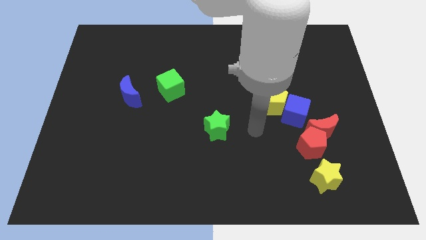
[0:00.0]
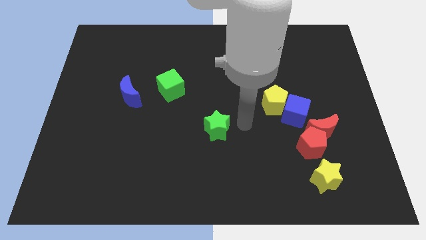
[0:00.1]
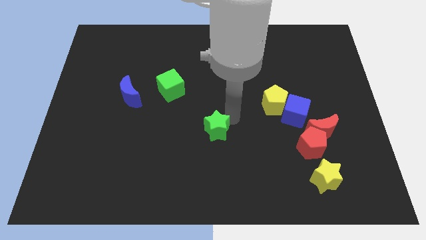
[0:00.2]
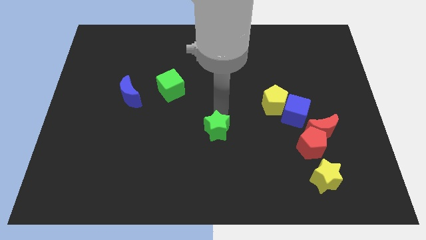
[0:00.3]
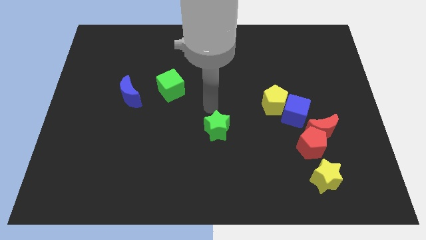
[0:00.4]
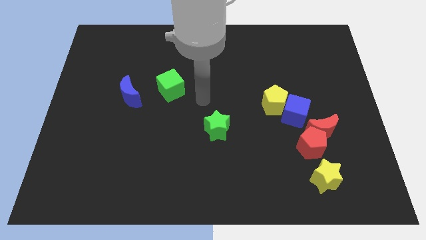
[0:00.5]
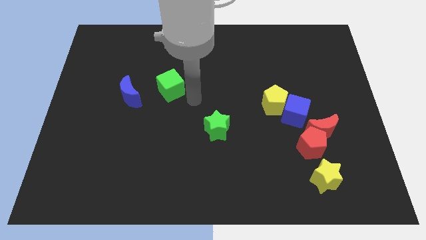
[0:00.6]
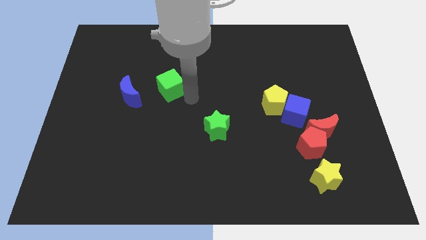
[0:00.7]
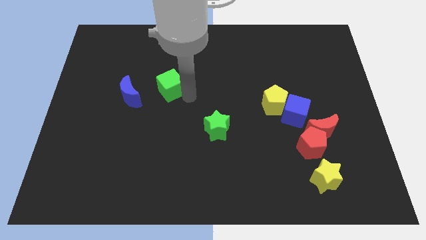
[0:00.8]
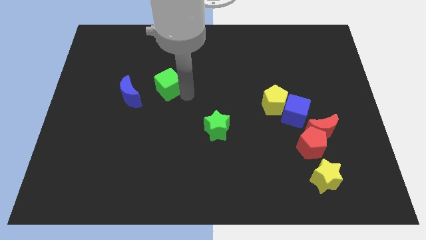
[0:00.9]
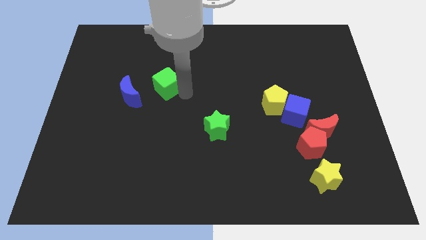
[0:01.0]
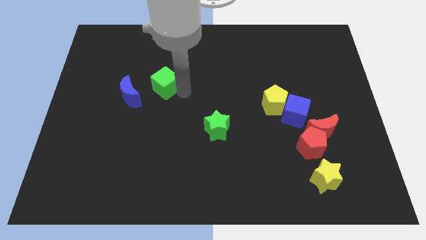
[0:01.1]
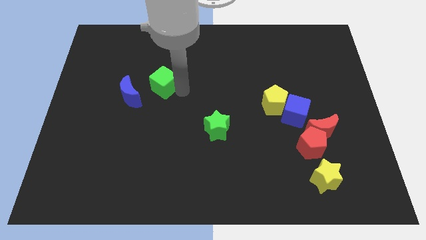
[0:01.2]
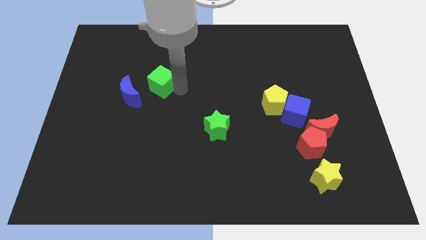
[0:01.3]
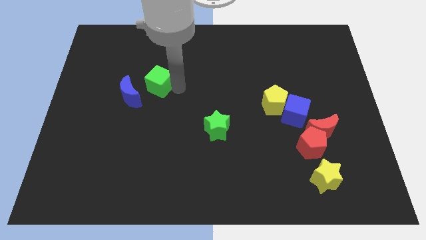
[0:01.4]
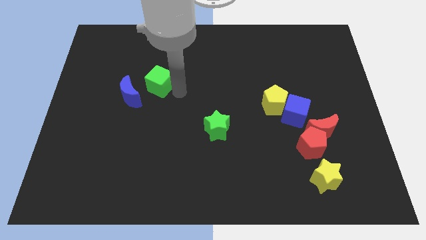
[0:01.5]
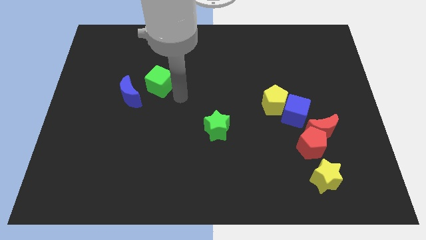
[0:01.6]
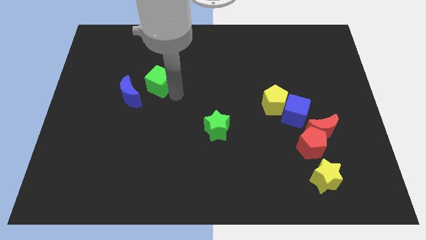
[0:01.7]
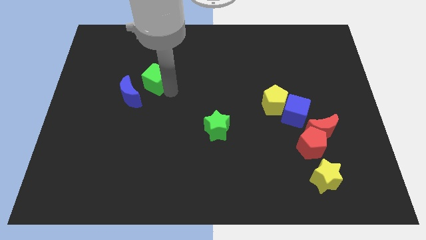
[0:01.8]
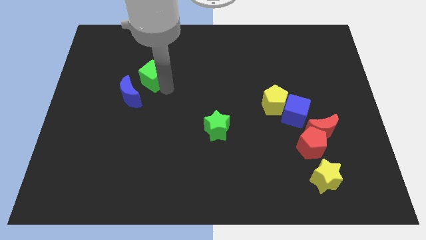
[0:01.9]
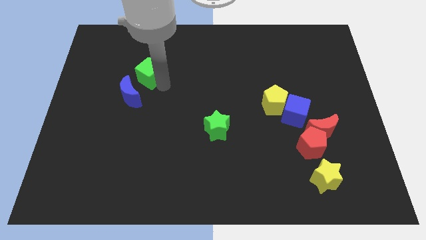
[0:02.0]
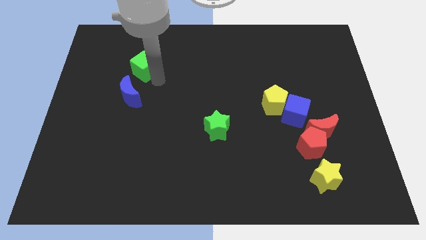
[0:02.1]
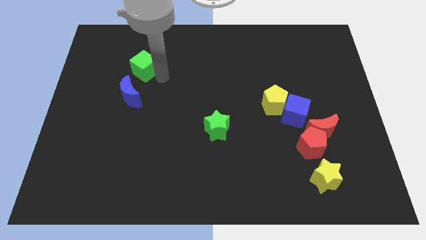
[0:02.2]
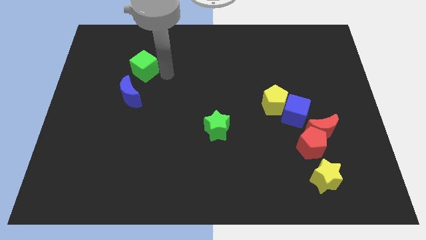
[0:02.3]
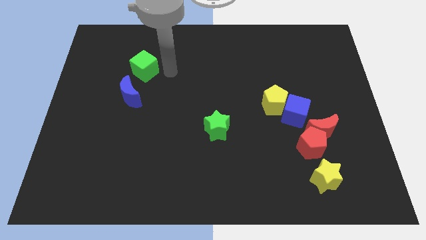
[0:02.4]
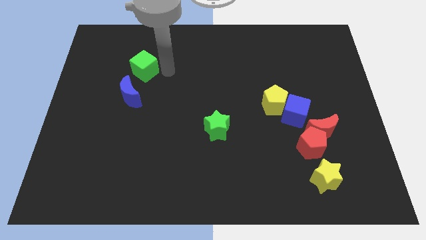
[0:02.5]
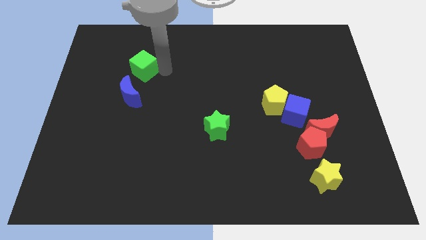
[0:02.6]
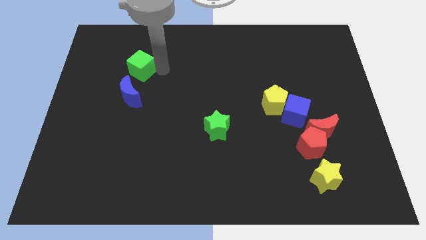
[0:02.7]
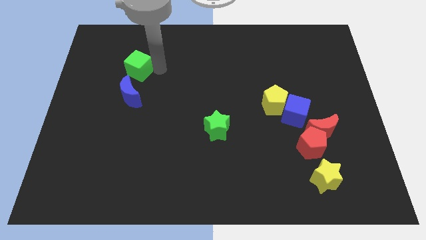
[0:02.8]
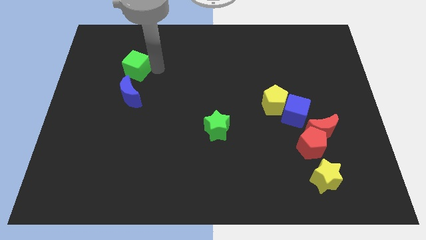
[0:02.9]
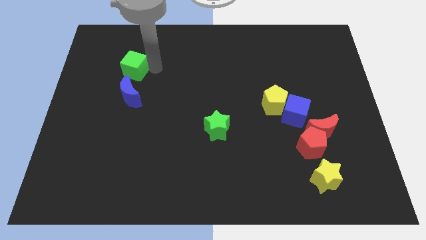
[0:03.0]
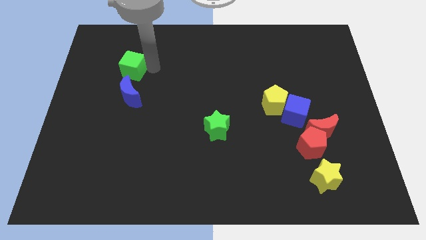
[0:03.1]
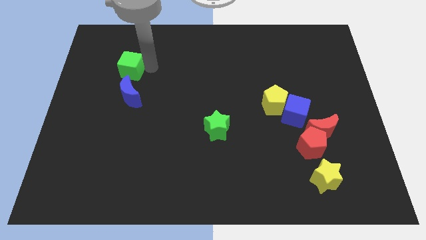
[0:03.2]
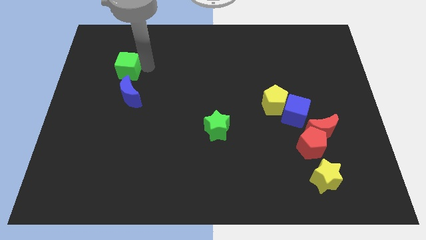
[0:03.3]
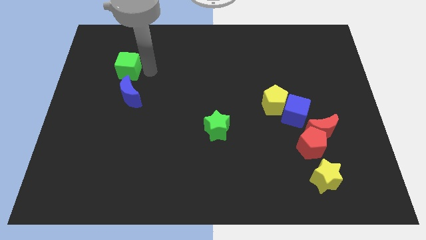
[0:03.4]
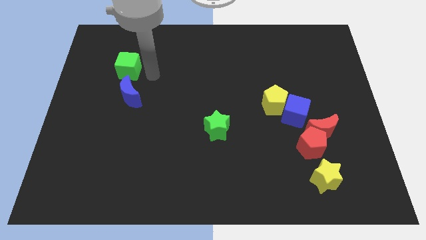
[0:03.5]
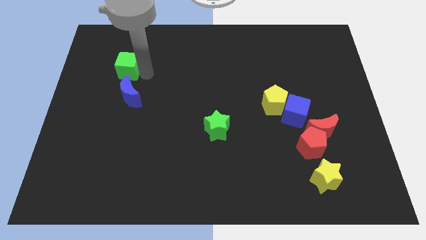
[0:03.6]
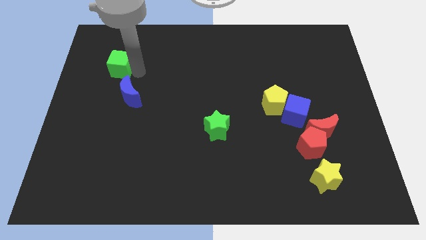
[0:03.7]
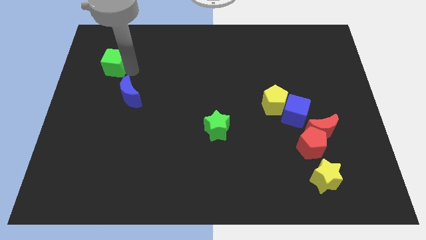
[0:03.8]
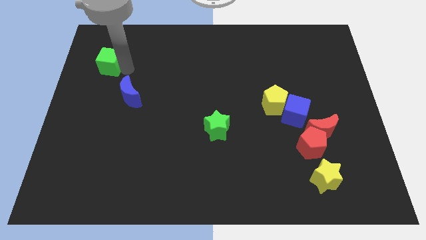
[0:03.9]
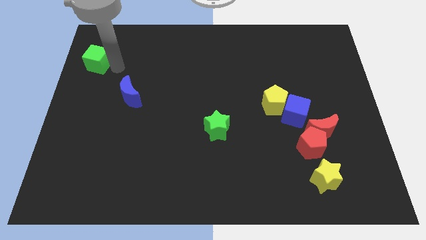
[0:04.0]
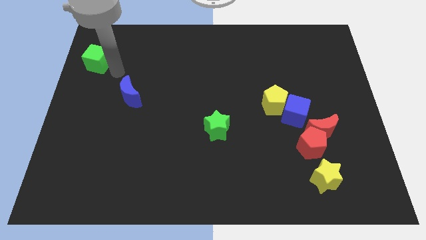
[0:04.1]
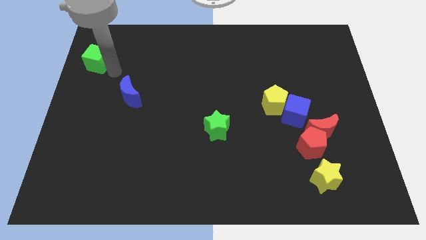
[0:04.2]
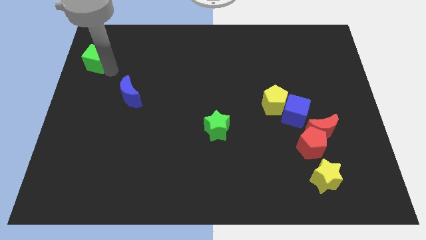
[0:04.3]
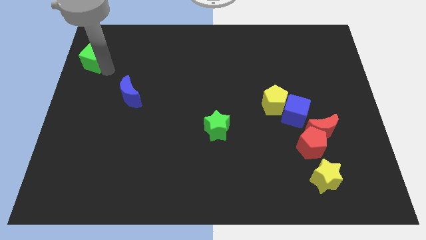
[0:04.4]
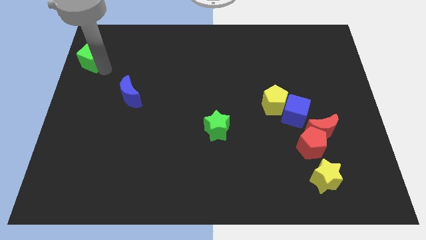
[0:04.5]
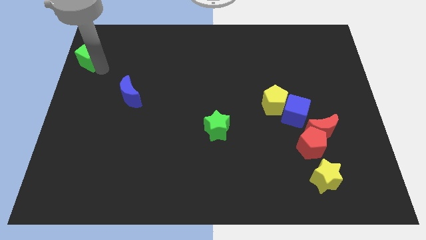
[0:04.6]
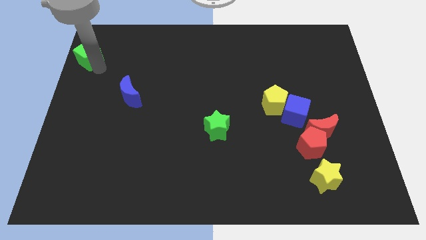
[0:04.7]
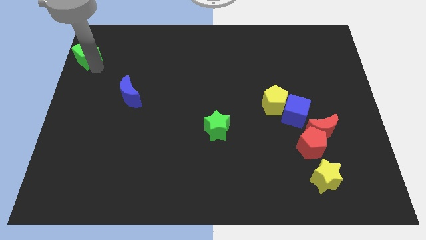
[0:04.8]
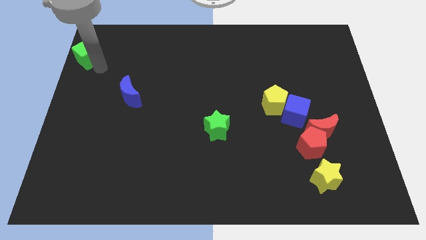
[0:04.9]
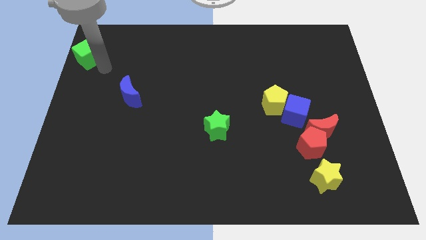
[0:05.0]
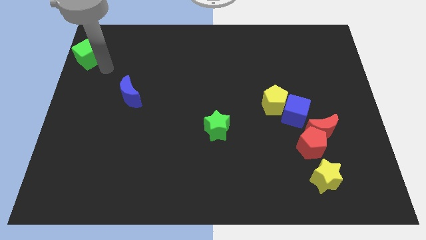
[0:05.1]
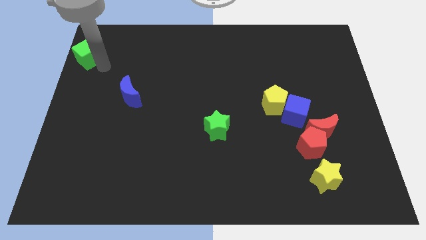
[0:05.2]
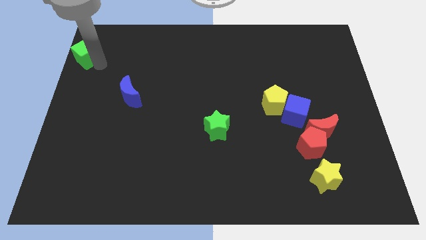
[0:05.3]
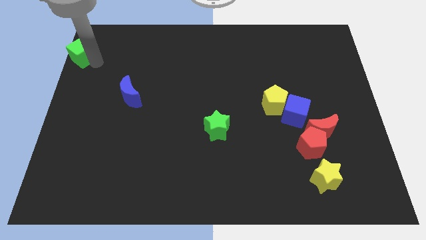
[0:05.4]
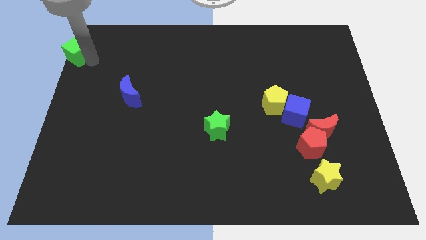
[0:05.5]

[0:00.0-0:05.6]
move the green cube to the upper left corner

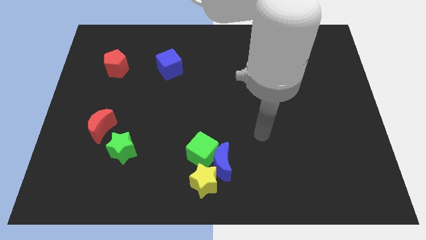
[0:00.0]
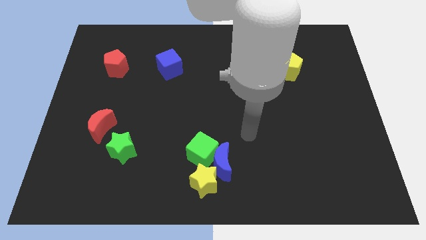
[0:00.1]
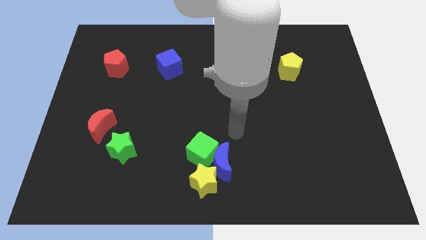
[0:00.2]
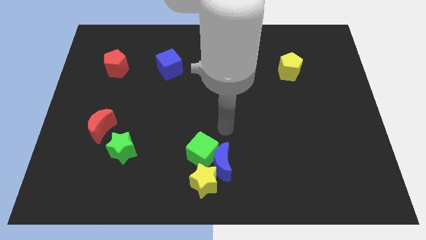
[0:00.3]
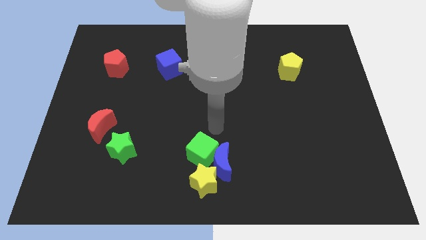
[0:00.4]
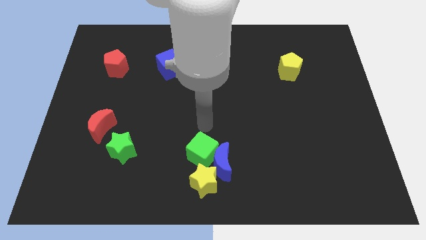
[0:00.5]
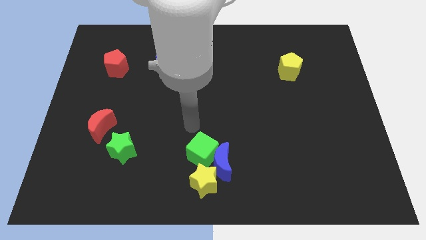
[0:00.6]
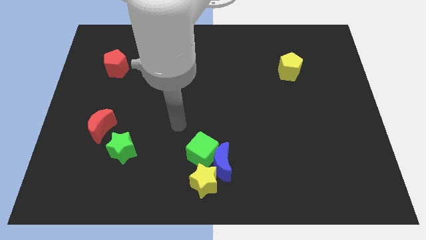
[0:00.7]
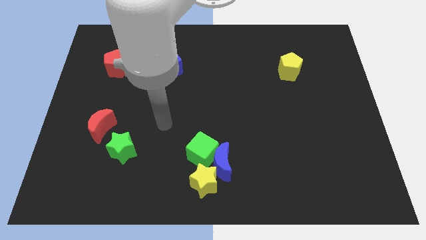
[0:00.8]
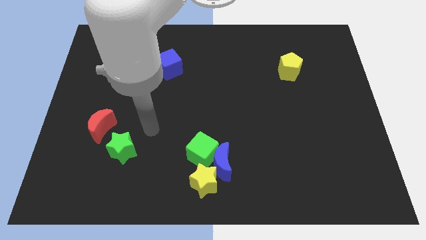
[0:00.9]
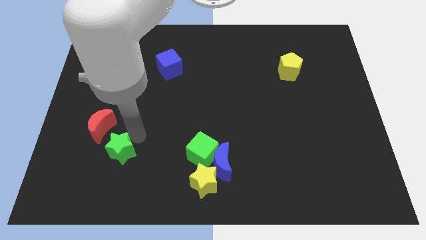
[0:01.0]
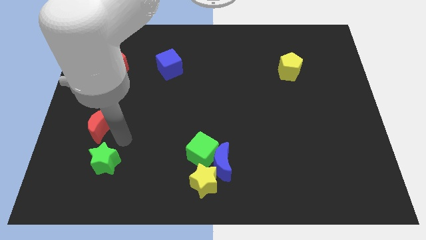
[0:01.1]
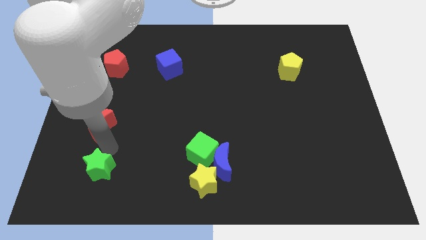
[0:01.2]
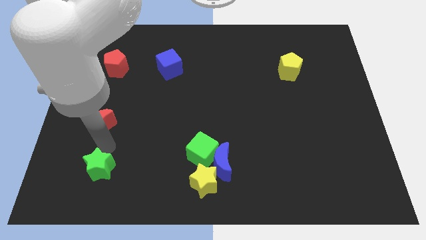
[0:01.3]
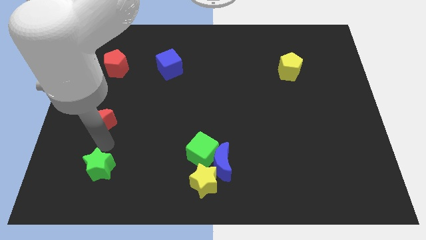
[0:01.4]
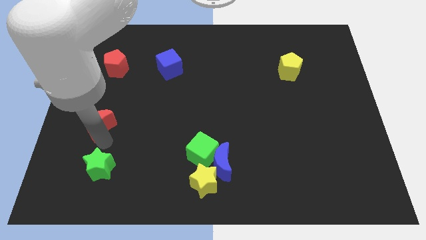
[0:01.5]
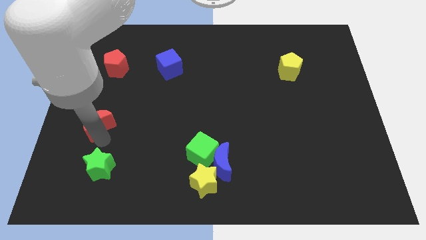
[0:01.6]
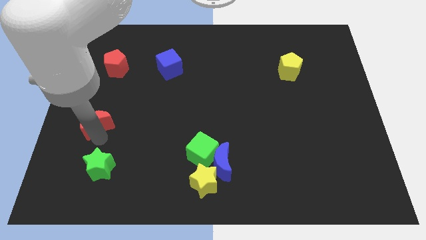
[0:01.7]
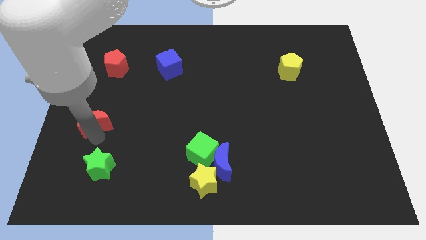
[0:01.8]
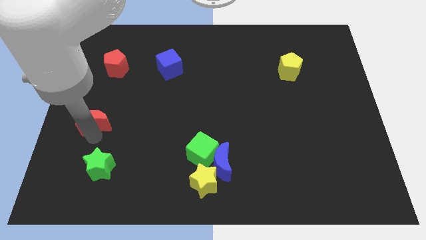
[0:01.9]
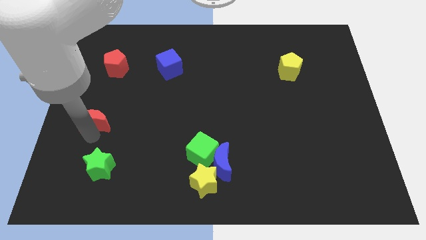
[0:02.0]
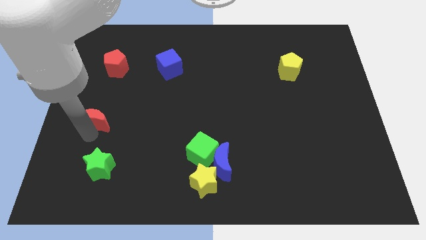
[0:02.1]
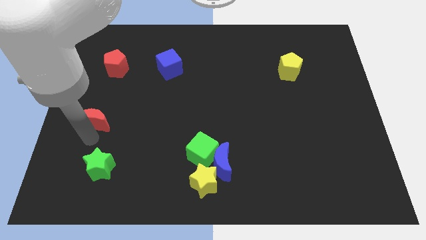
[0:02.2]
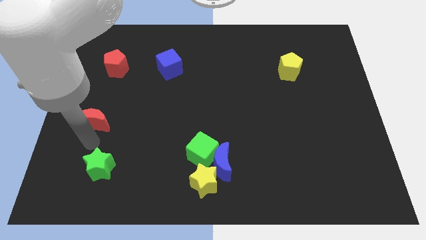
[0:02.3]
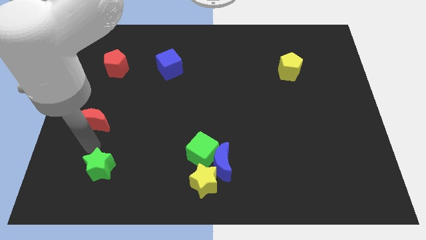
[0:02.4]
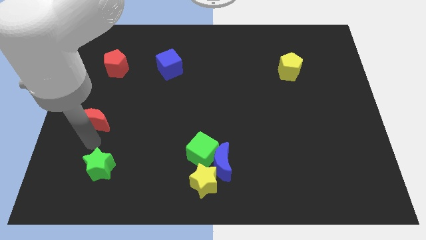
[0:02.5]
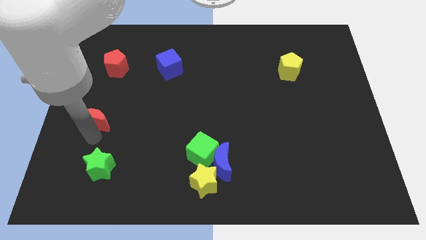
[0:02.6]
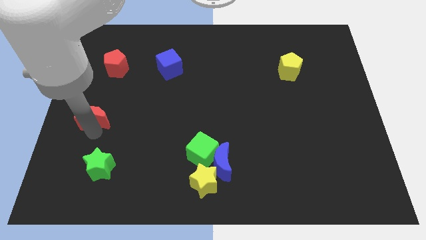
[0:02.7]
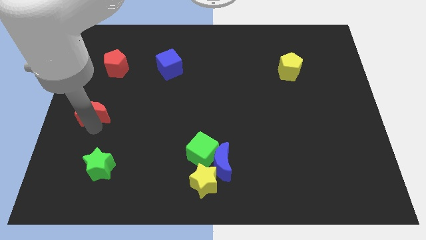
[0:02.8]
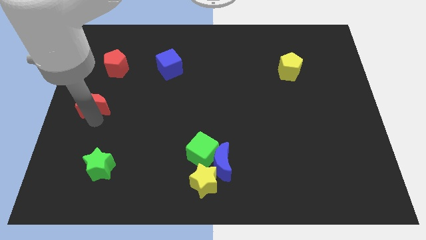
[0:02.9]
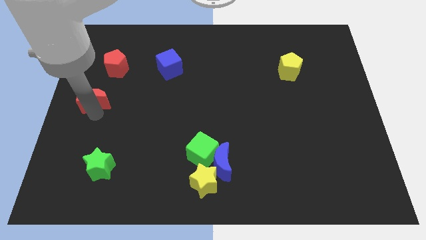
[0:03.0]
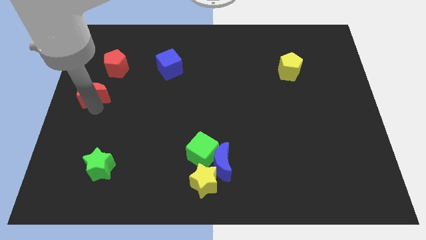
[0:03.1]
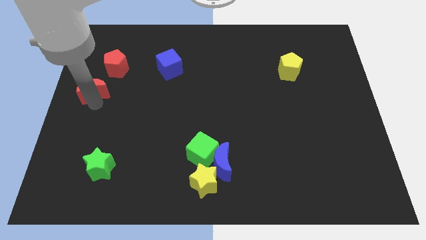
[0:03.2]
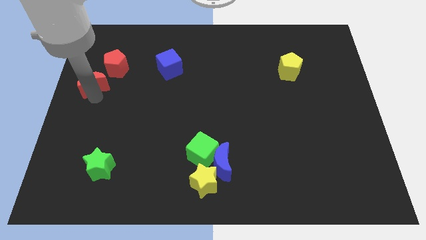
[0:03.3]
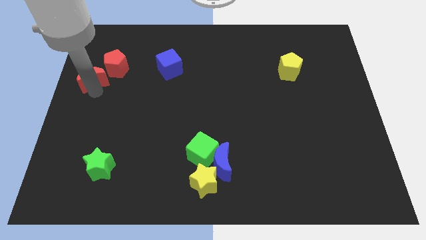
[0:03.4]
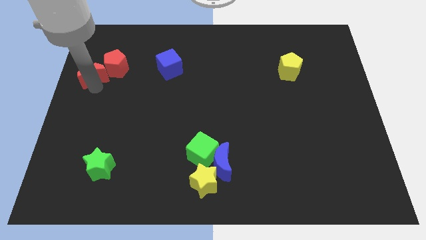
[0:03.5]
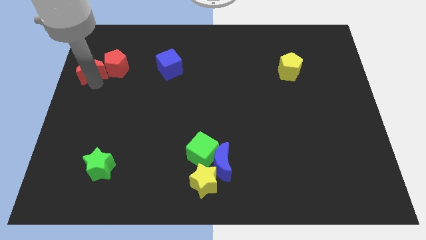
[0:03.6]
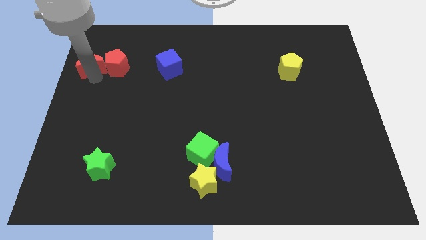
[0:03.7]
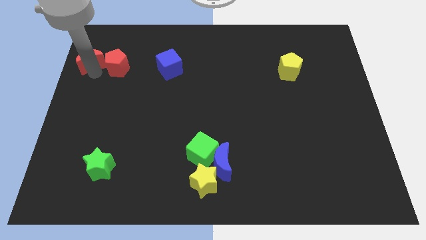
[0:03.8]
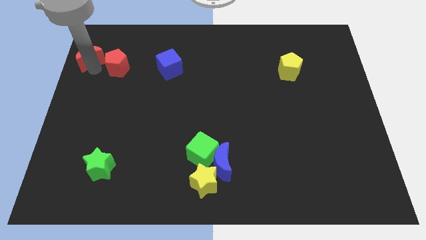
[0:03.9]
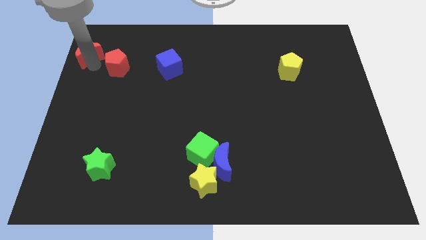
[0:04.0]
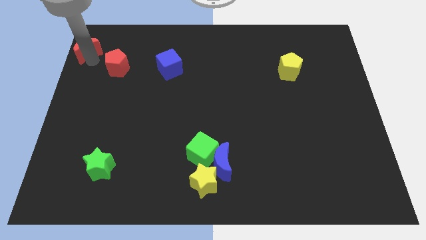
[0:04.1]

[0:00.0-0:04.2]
move the red moon to the top left
